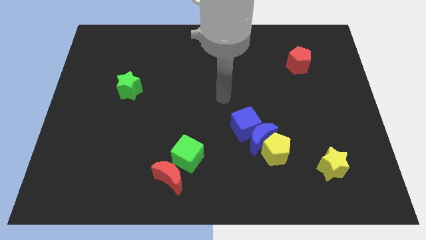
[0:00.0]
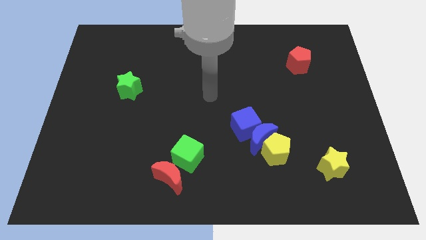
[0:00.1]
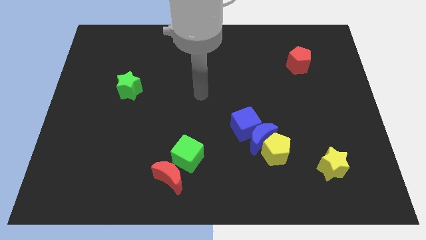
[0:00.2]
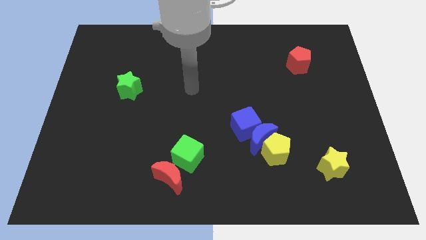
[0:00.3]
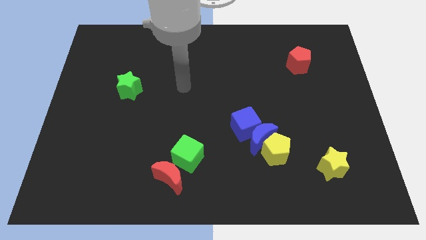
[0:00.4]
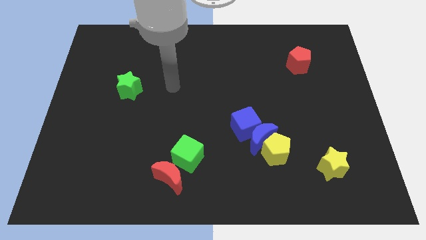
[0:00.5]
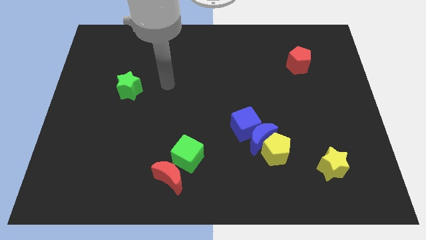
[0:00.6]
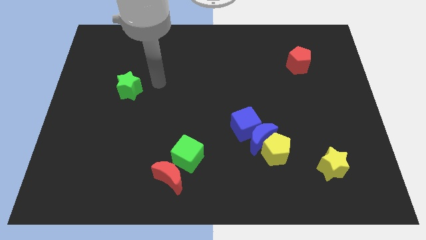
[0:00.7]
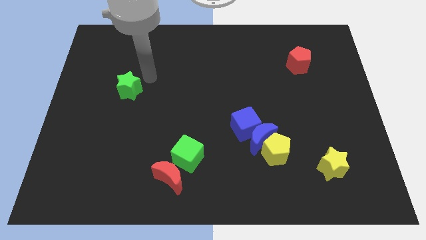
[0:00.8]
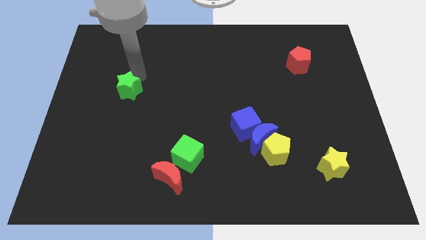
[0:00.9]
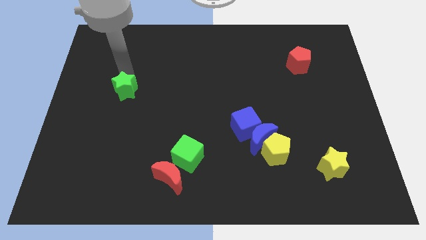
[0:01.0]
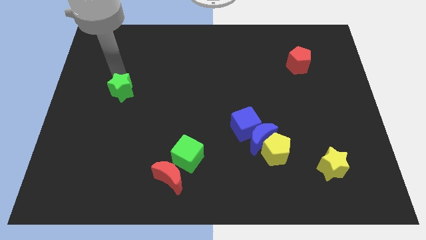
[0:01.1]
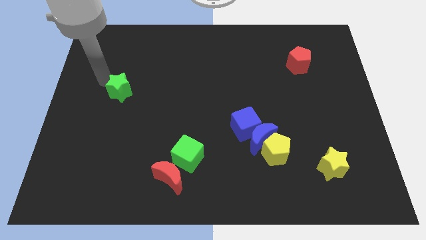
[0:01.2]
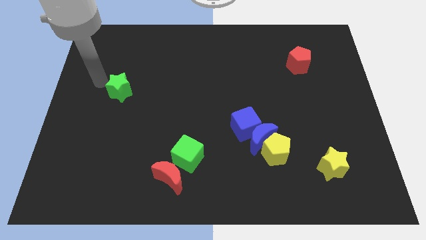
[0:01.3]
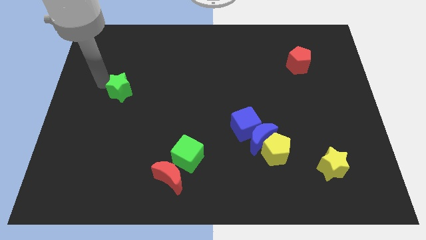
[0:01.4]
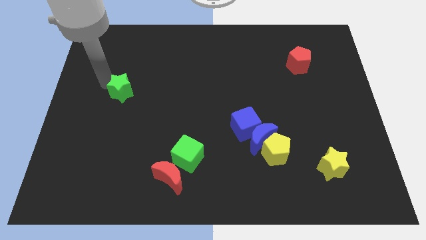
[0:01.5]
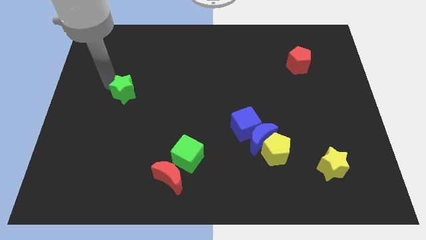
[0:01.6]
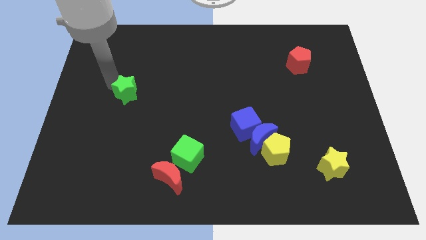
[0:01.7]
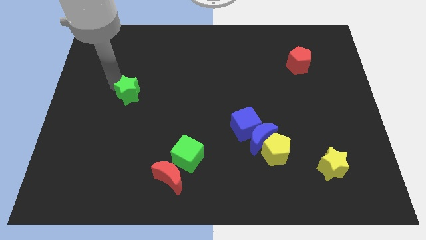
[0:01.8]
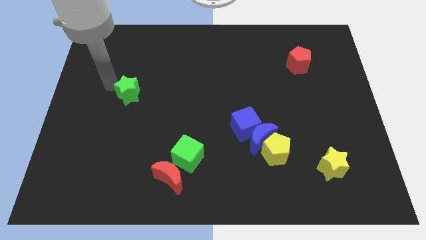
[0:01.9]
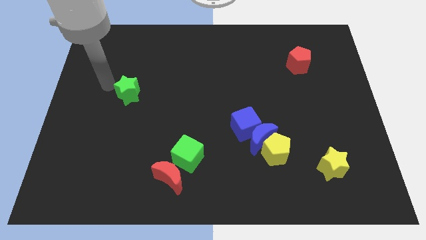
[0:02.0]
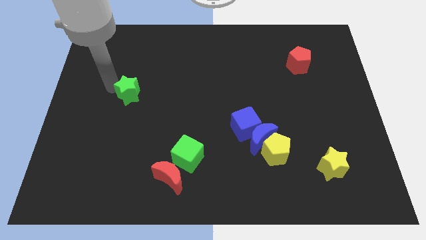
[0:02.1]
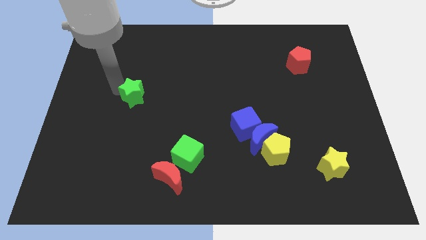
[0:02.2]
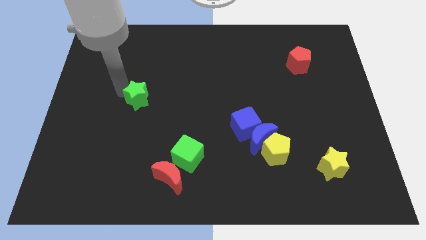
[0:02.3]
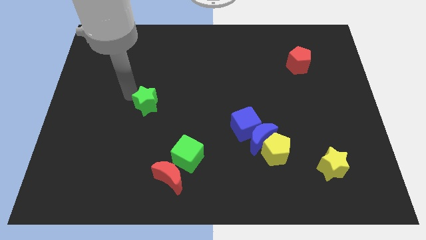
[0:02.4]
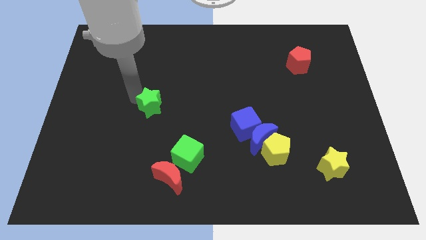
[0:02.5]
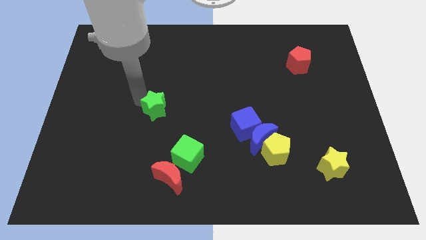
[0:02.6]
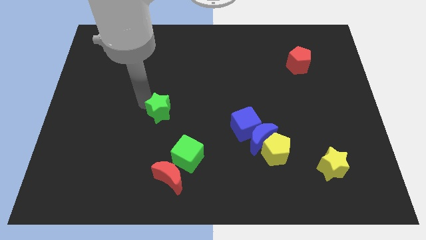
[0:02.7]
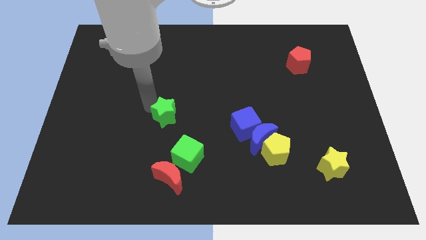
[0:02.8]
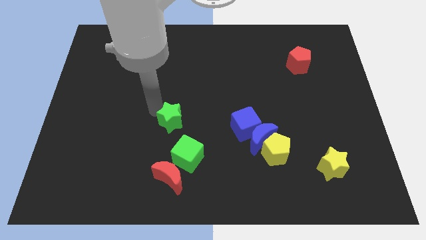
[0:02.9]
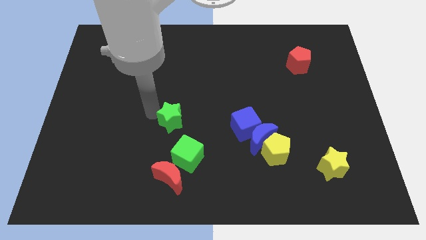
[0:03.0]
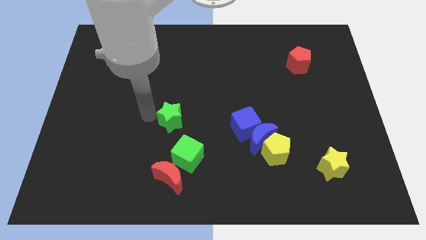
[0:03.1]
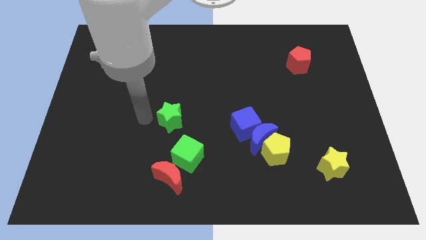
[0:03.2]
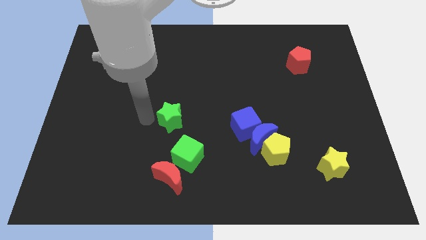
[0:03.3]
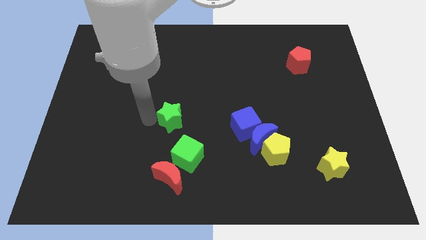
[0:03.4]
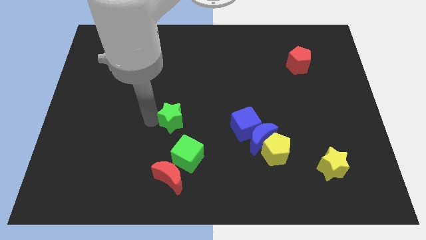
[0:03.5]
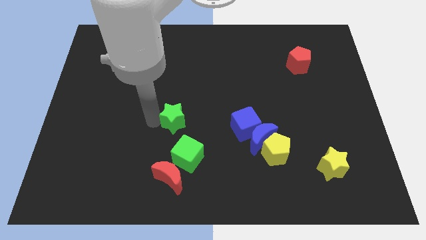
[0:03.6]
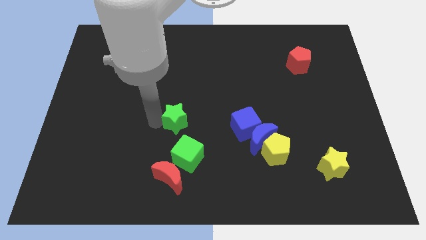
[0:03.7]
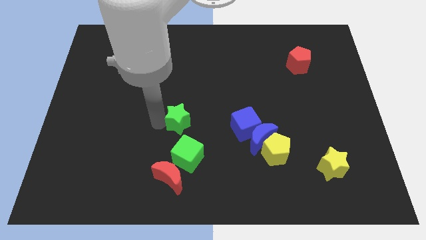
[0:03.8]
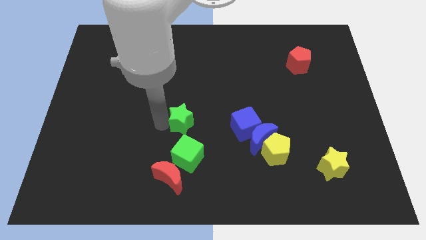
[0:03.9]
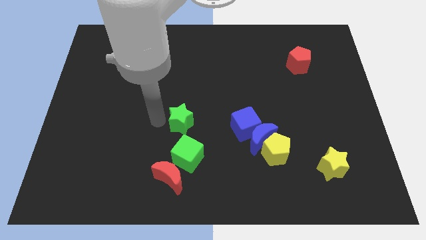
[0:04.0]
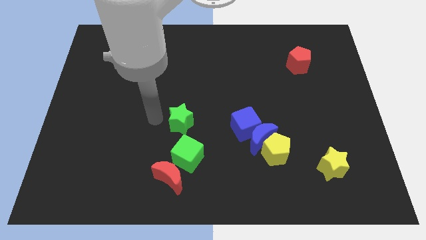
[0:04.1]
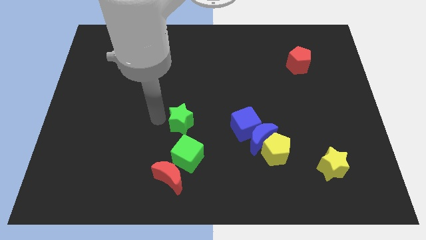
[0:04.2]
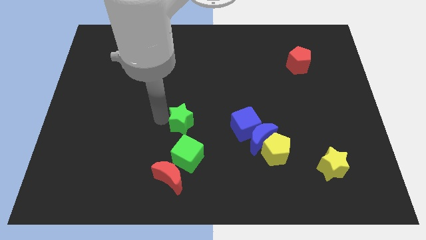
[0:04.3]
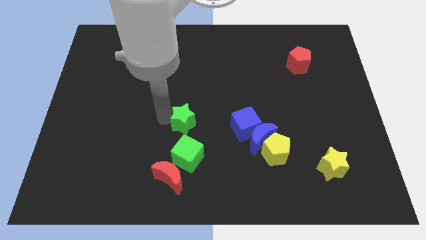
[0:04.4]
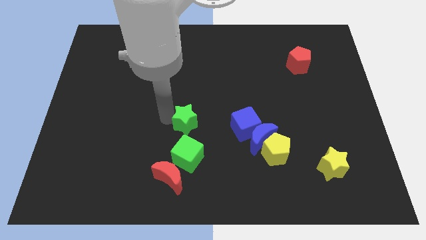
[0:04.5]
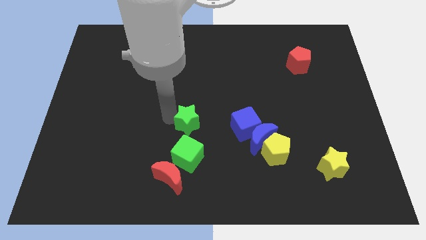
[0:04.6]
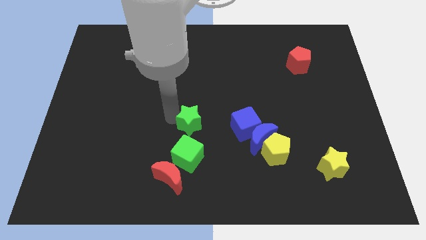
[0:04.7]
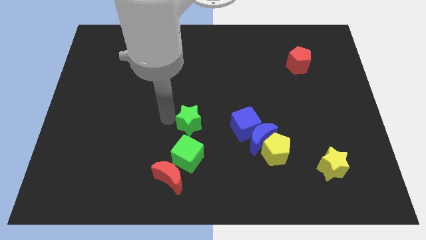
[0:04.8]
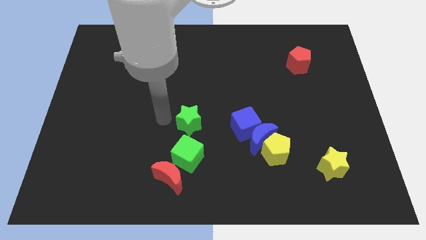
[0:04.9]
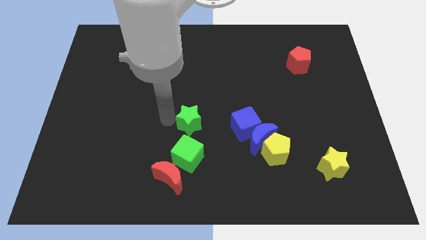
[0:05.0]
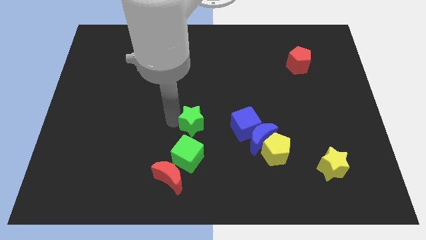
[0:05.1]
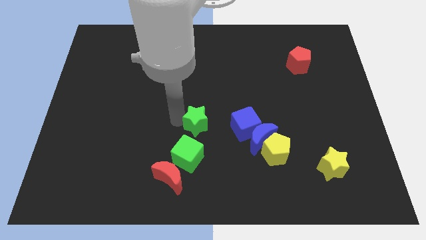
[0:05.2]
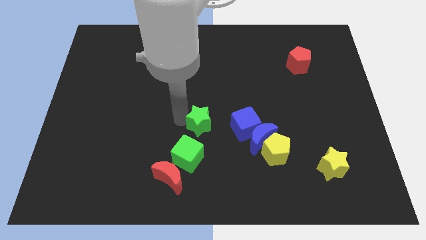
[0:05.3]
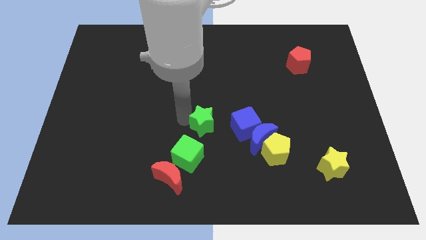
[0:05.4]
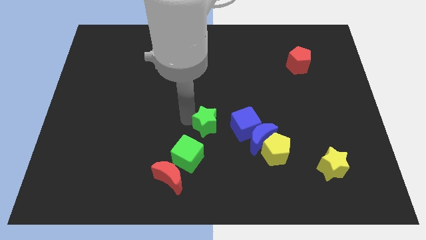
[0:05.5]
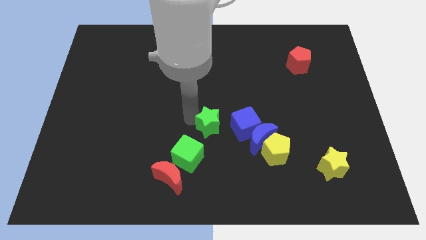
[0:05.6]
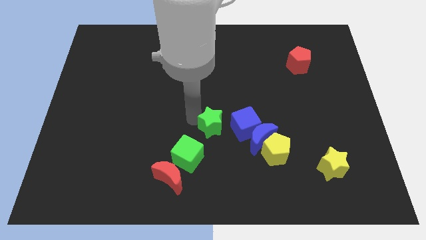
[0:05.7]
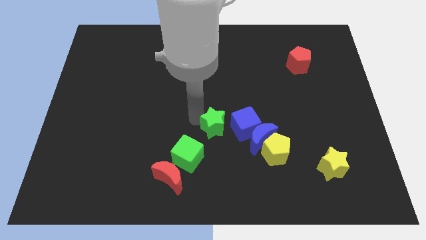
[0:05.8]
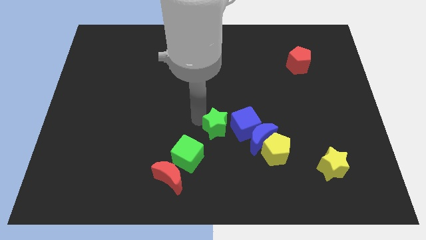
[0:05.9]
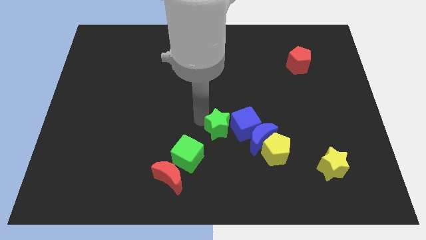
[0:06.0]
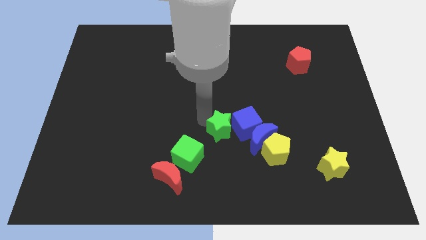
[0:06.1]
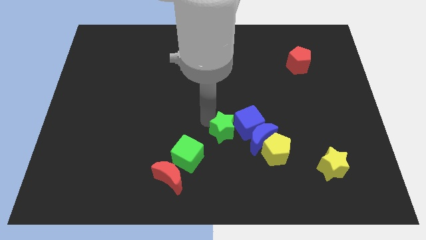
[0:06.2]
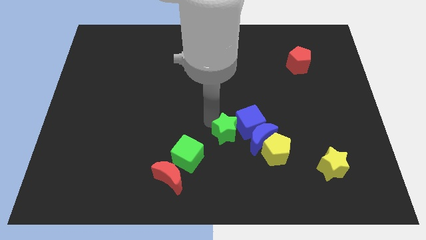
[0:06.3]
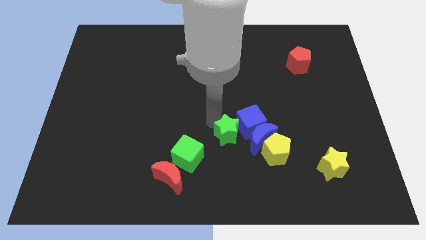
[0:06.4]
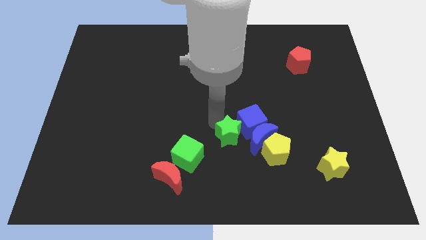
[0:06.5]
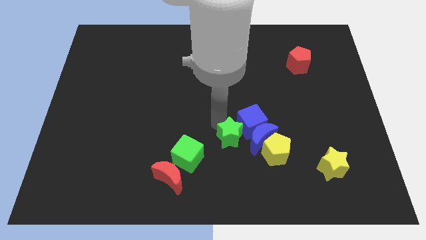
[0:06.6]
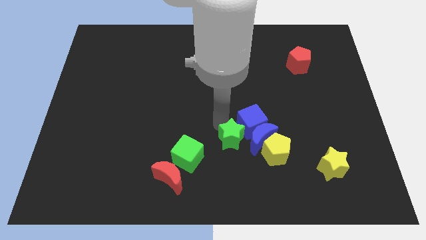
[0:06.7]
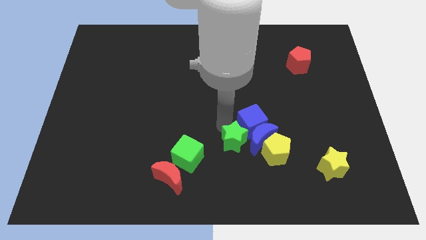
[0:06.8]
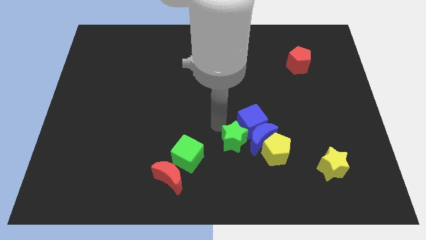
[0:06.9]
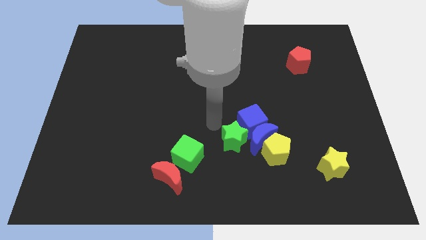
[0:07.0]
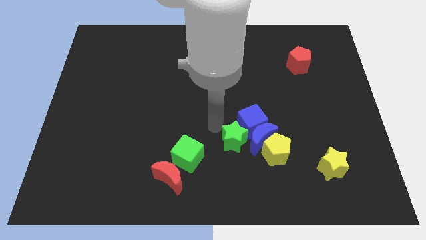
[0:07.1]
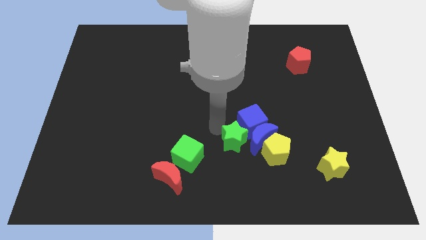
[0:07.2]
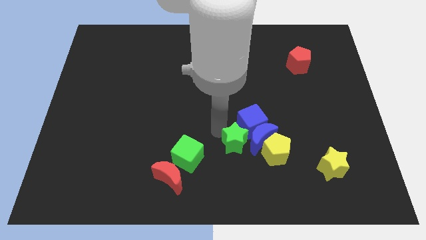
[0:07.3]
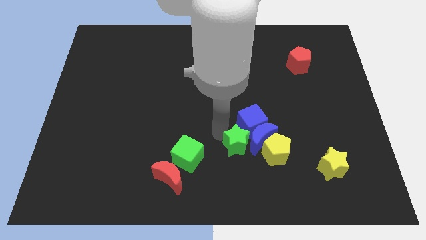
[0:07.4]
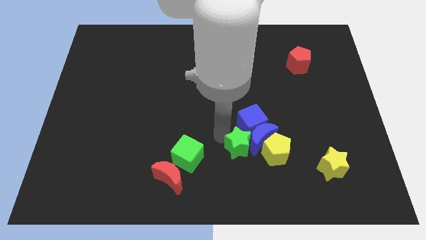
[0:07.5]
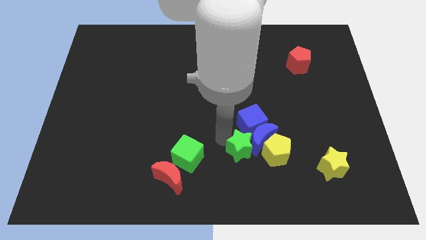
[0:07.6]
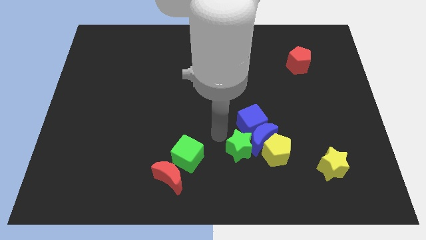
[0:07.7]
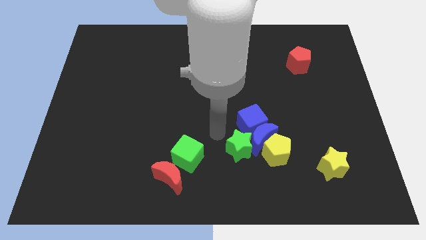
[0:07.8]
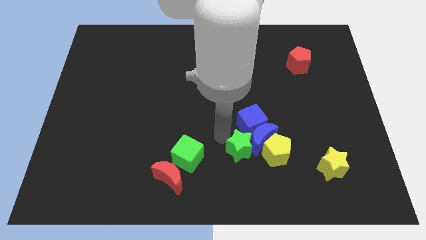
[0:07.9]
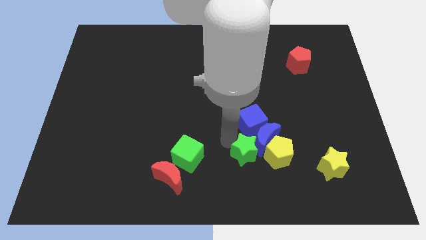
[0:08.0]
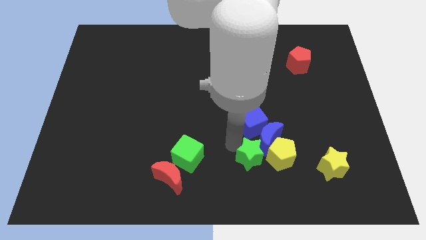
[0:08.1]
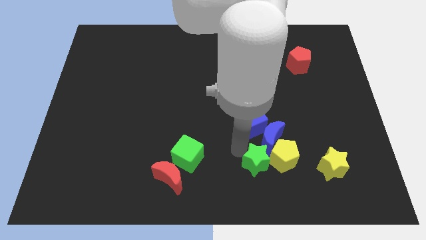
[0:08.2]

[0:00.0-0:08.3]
put the green star left of the yellow star
